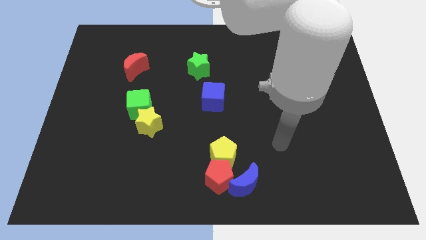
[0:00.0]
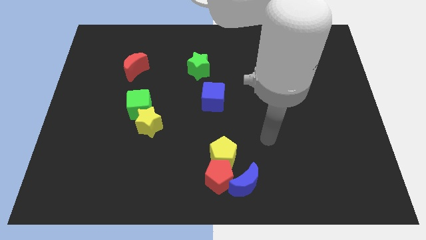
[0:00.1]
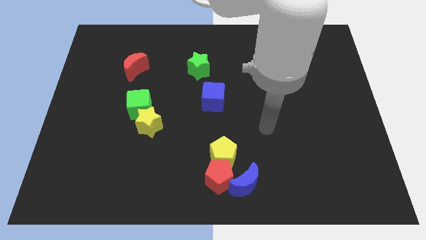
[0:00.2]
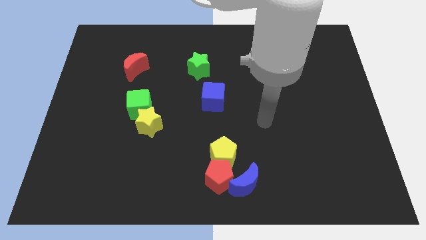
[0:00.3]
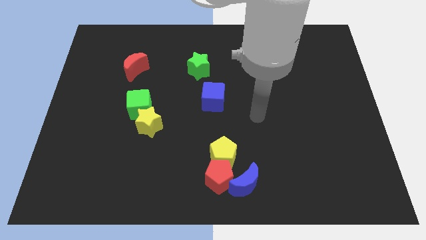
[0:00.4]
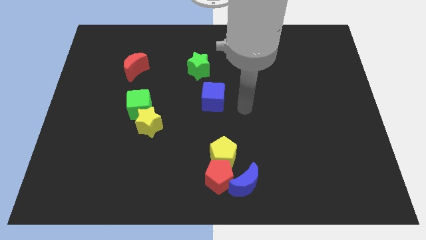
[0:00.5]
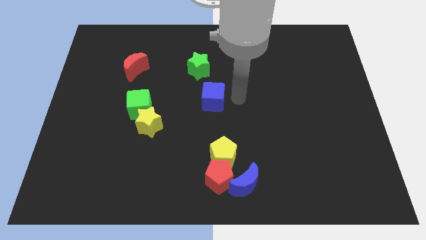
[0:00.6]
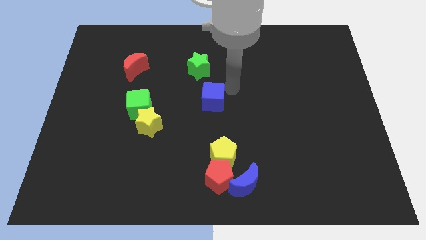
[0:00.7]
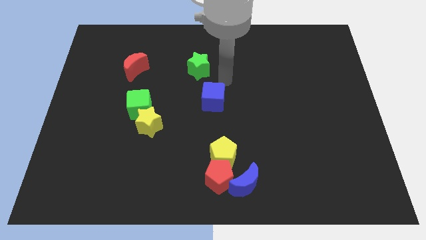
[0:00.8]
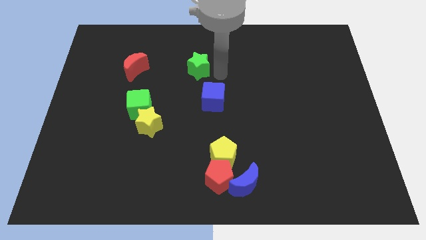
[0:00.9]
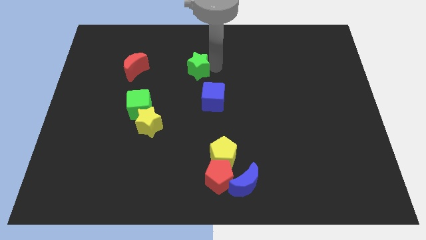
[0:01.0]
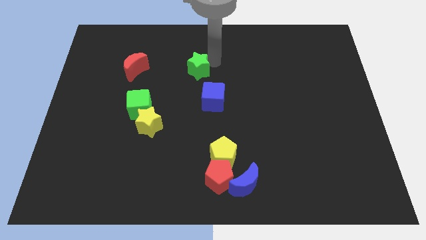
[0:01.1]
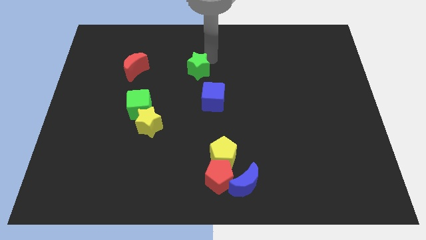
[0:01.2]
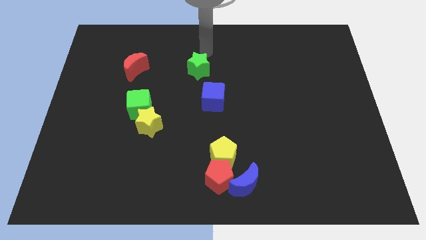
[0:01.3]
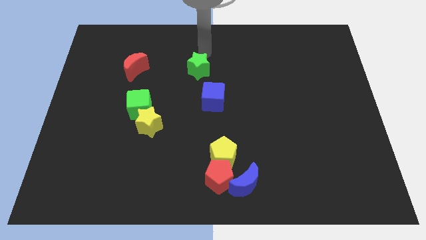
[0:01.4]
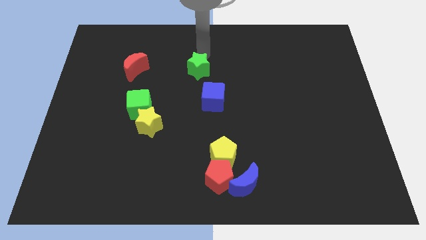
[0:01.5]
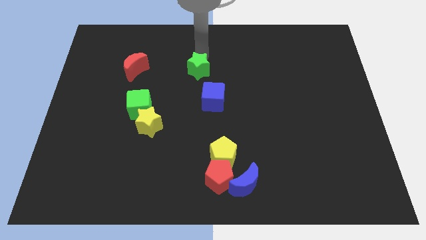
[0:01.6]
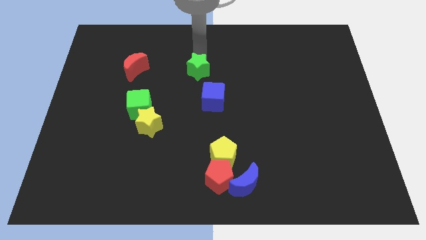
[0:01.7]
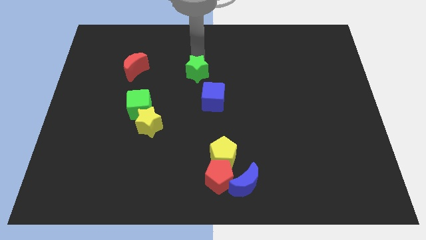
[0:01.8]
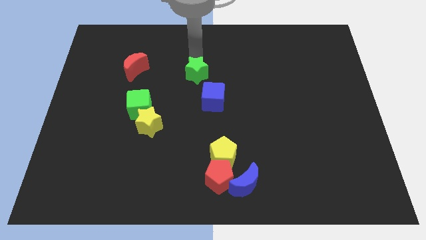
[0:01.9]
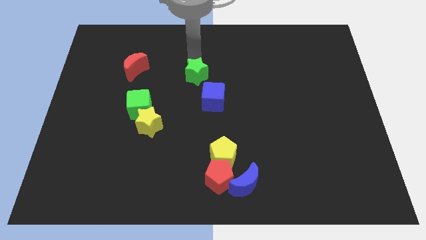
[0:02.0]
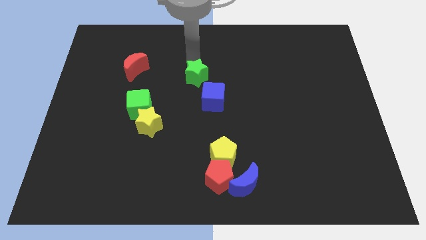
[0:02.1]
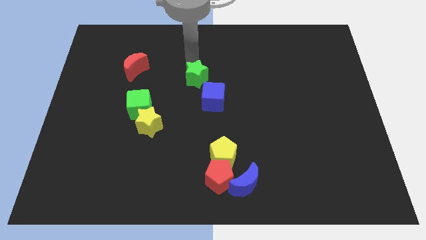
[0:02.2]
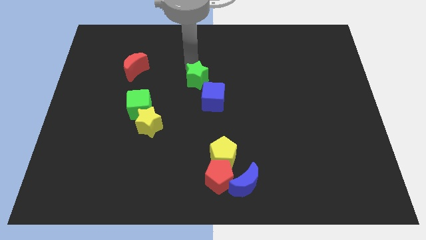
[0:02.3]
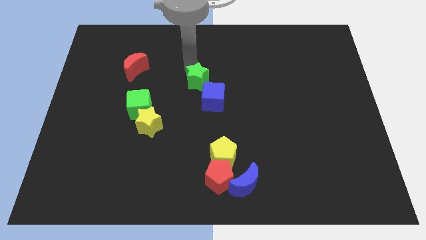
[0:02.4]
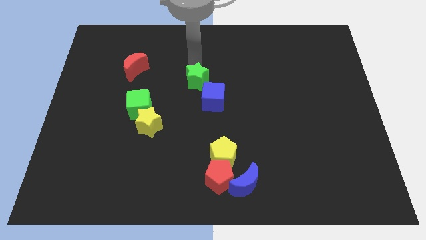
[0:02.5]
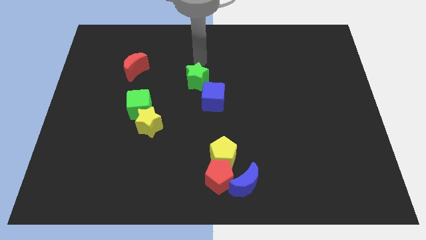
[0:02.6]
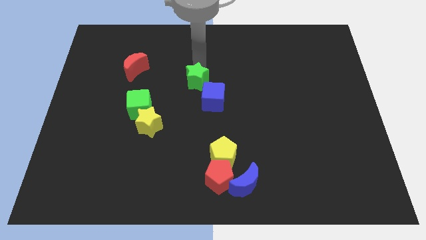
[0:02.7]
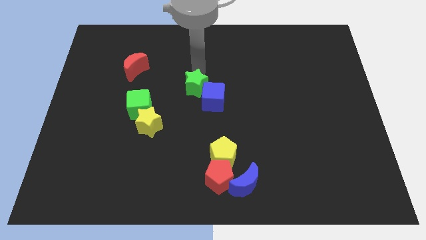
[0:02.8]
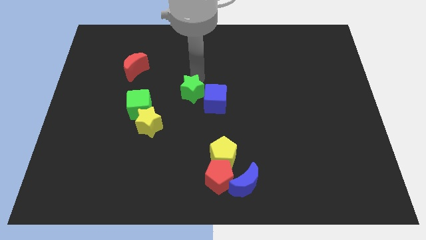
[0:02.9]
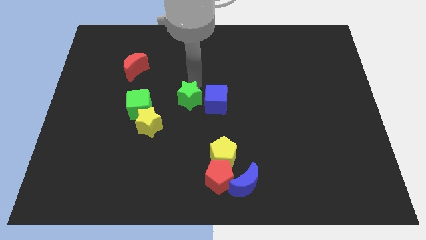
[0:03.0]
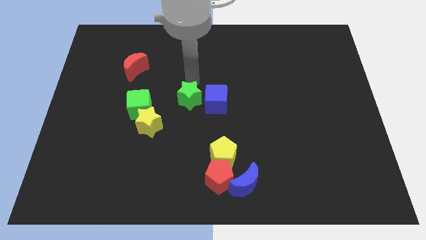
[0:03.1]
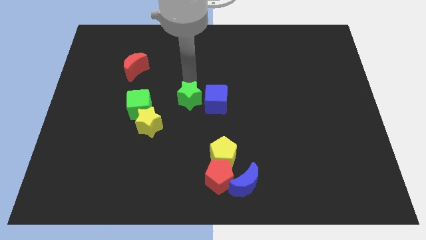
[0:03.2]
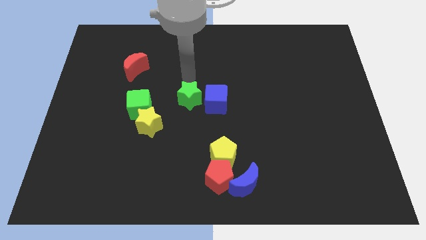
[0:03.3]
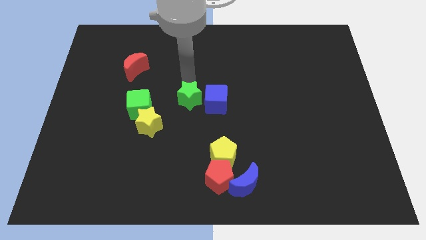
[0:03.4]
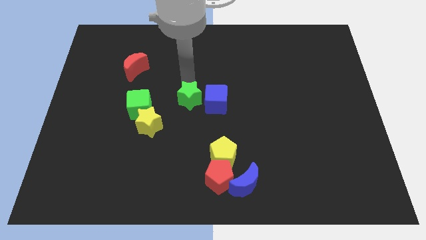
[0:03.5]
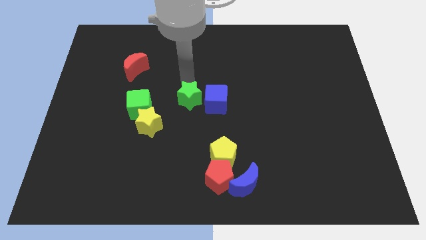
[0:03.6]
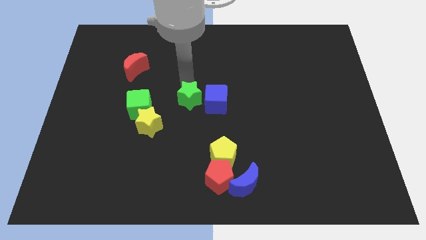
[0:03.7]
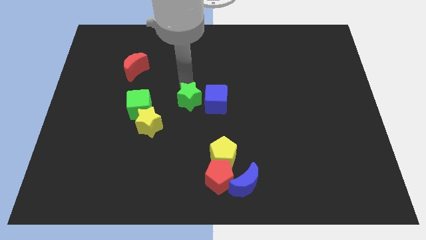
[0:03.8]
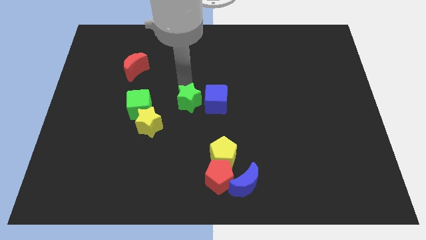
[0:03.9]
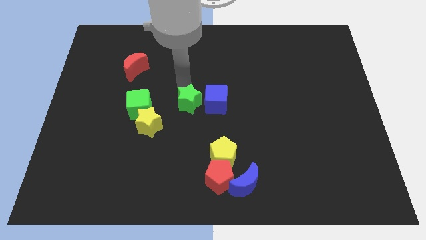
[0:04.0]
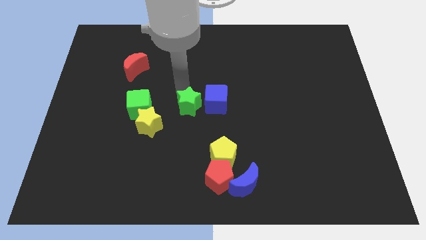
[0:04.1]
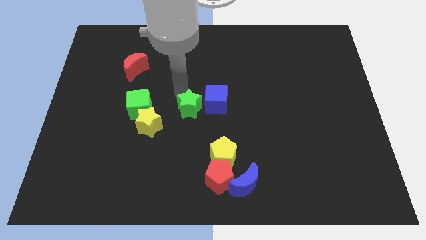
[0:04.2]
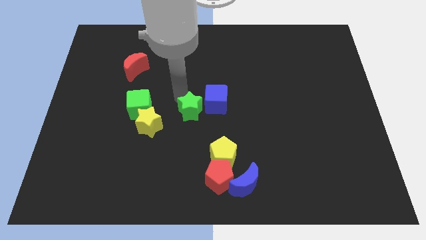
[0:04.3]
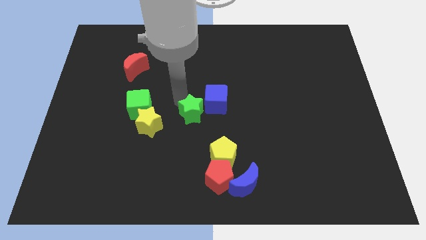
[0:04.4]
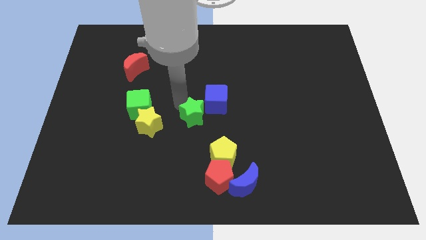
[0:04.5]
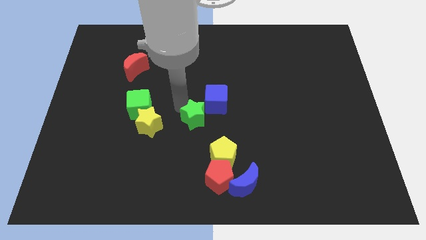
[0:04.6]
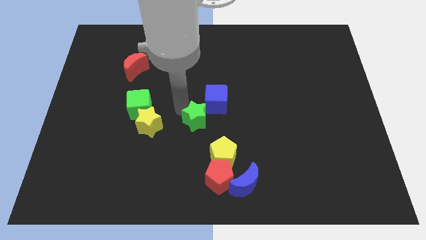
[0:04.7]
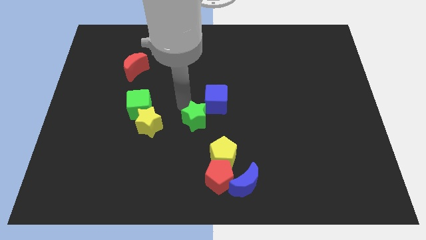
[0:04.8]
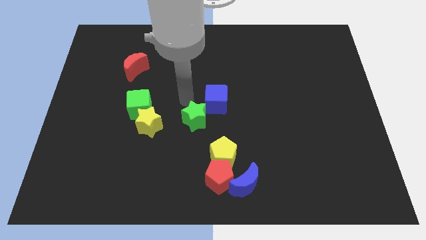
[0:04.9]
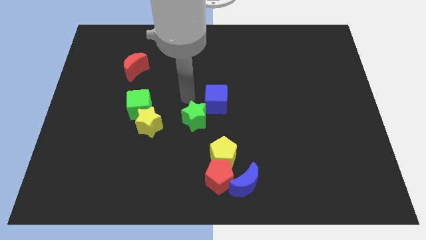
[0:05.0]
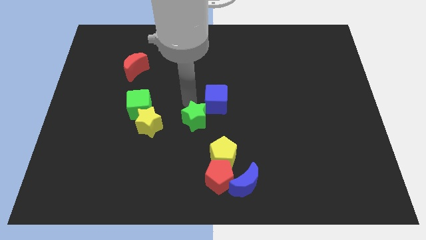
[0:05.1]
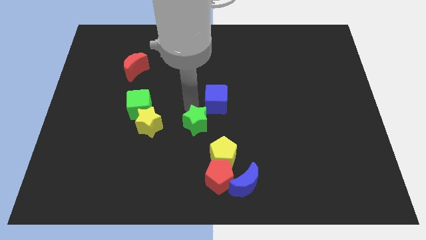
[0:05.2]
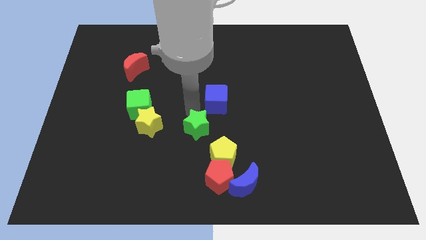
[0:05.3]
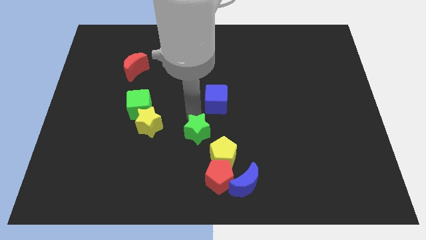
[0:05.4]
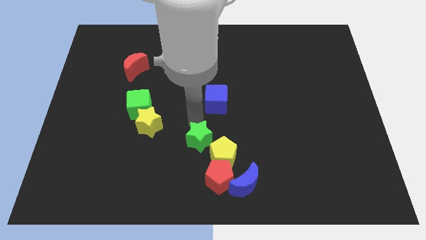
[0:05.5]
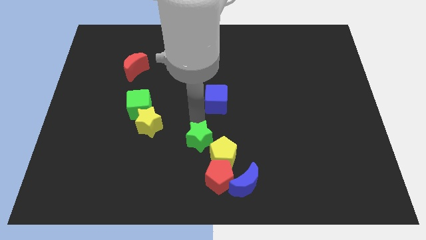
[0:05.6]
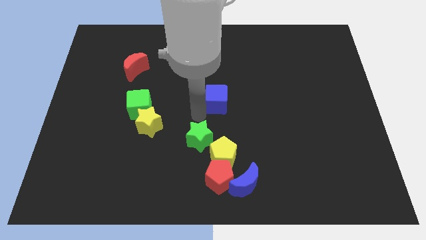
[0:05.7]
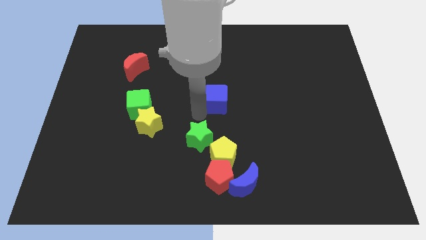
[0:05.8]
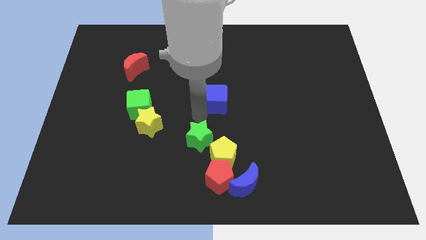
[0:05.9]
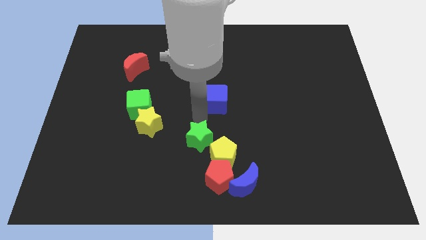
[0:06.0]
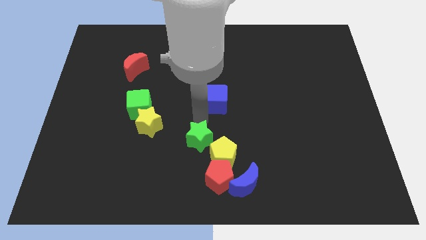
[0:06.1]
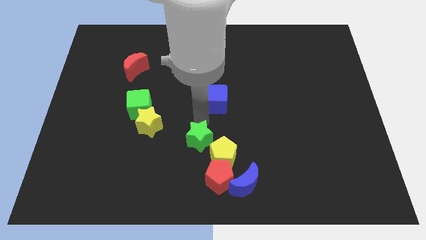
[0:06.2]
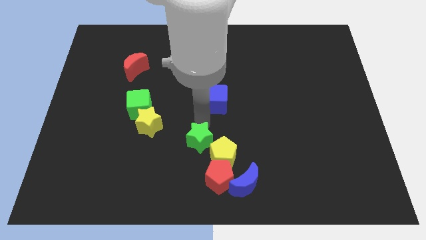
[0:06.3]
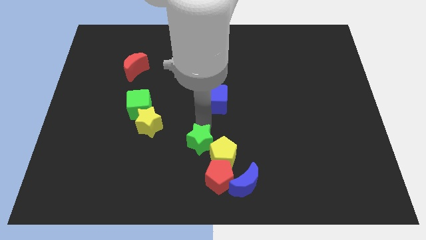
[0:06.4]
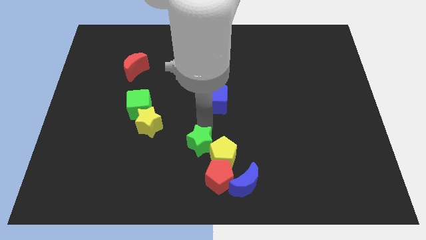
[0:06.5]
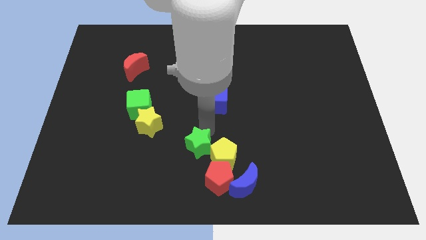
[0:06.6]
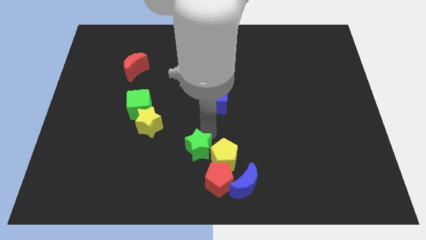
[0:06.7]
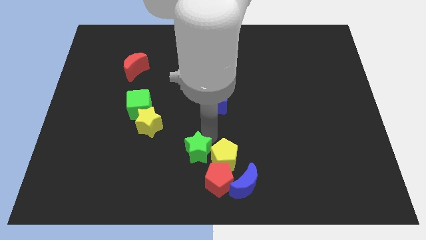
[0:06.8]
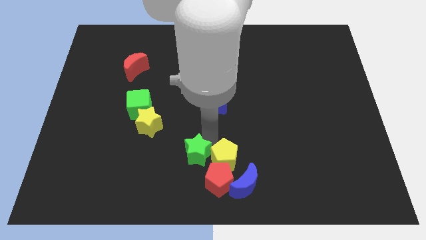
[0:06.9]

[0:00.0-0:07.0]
put the green star to the bottom left of the yellow pentagon
